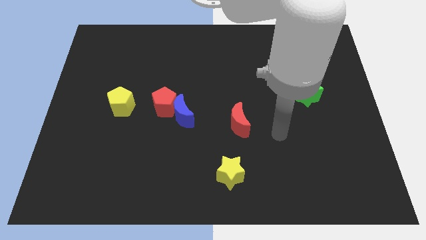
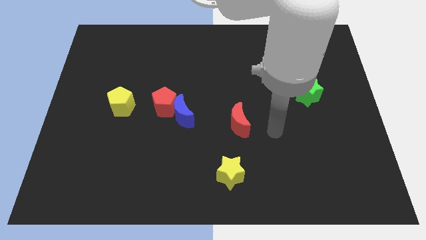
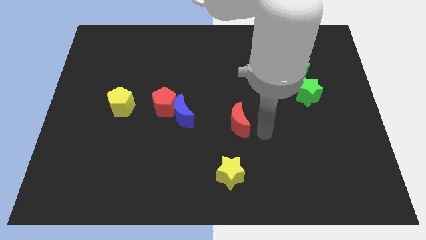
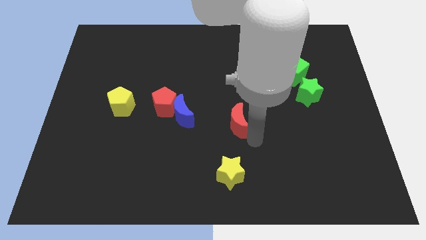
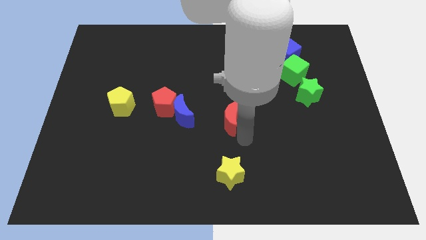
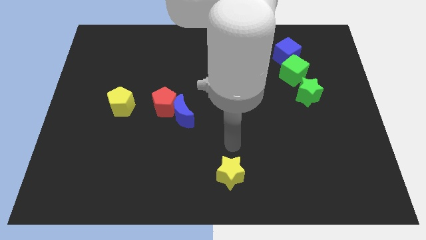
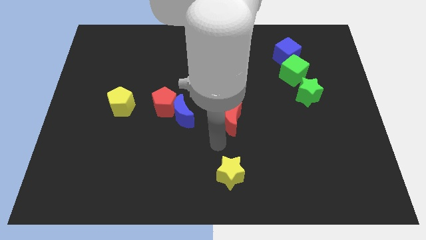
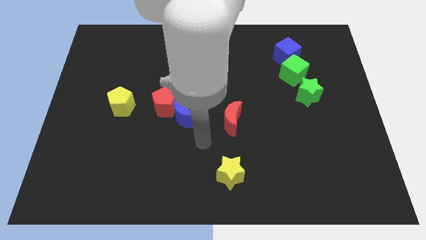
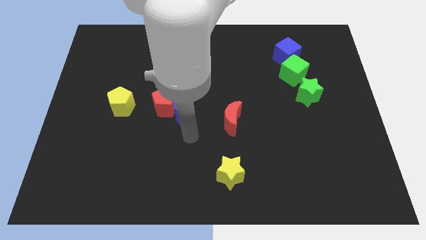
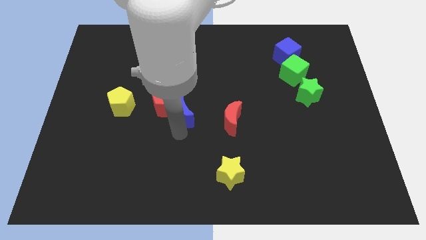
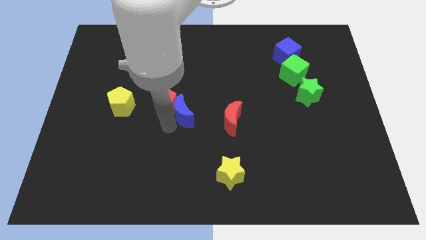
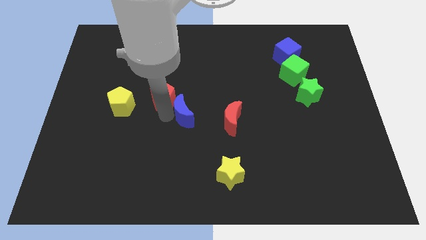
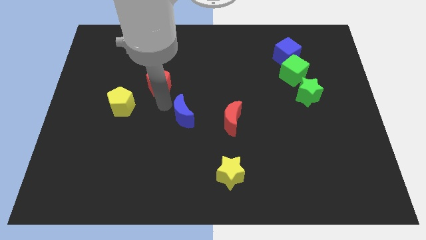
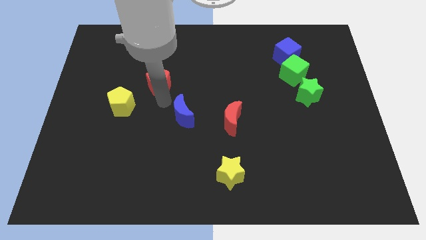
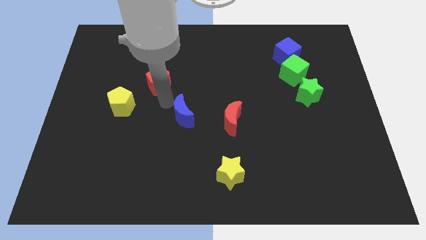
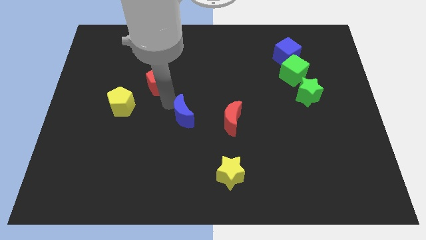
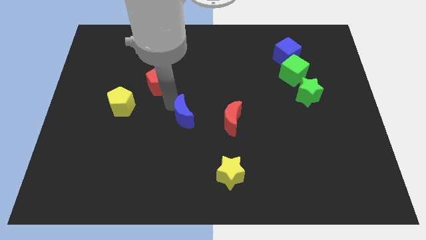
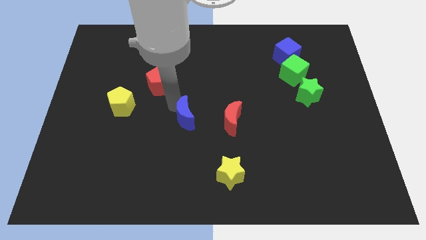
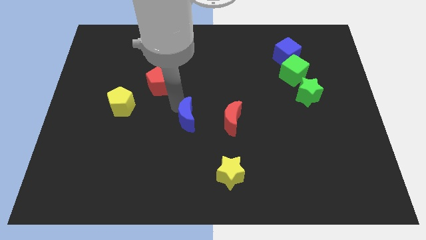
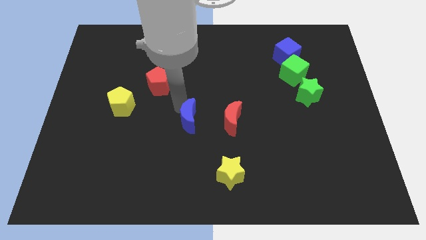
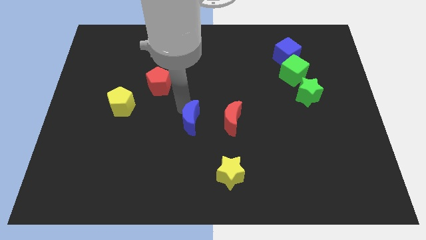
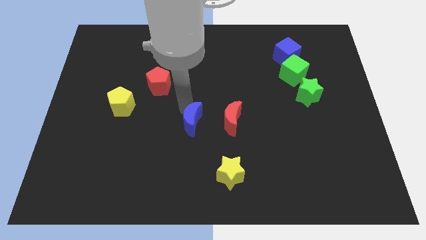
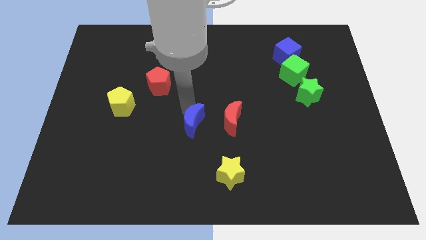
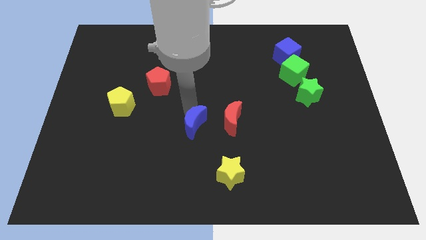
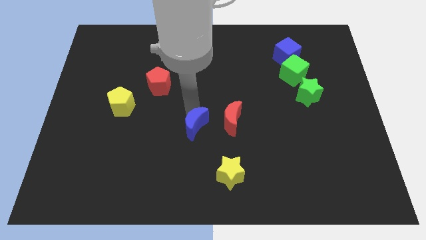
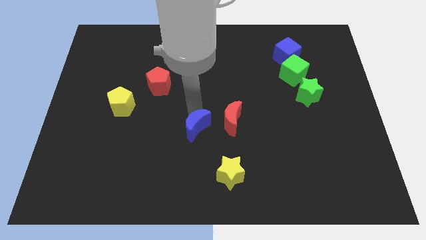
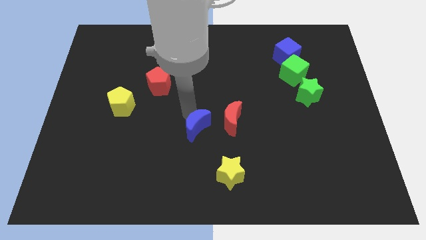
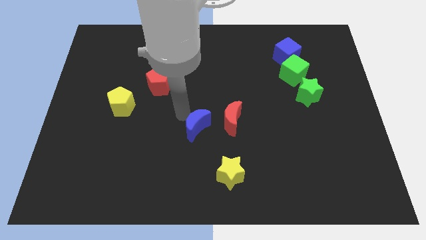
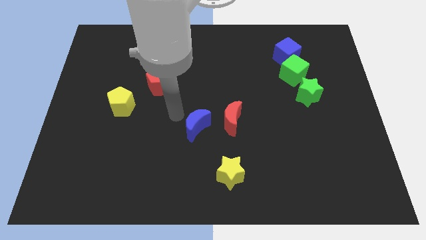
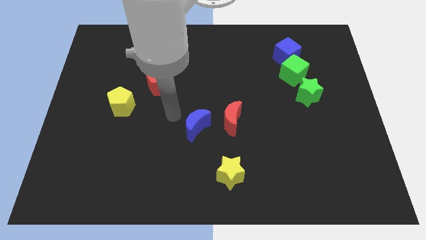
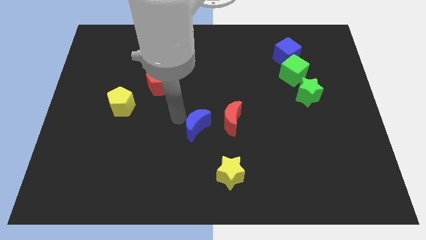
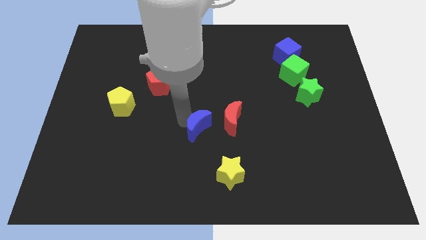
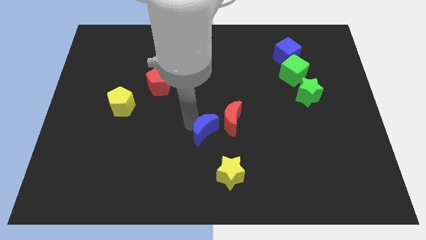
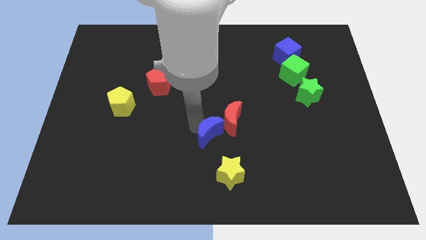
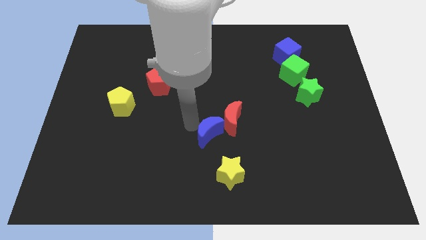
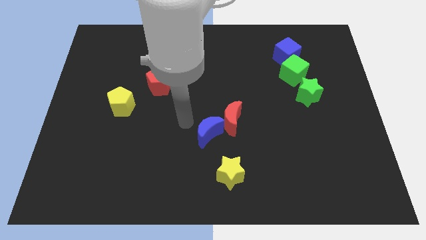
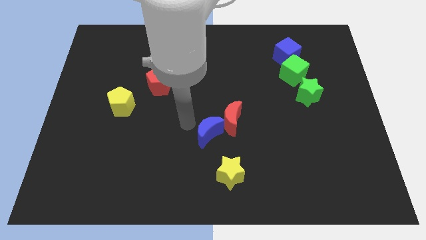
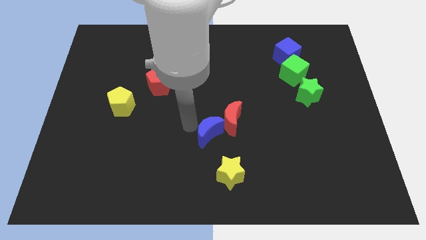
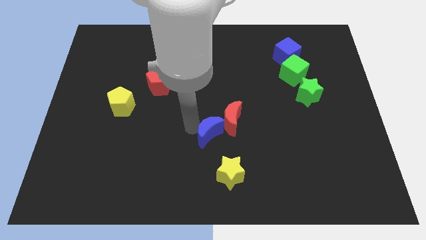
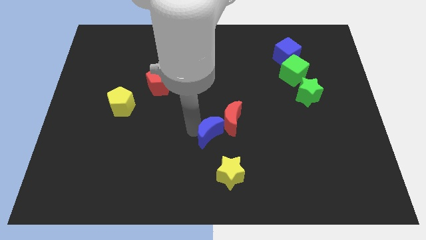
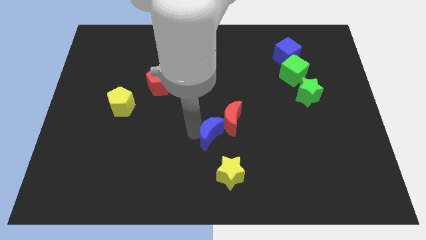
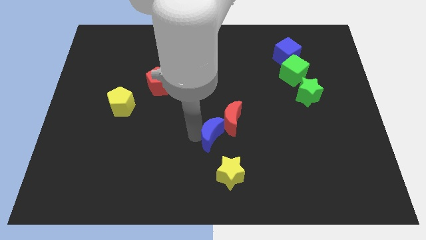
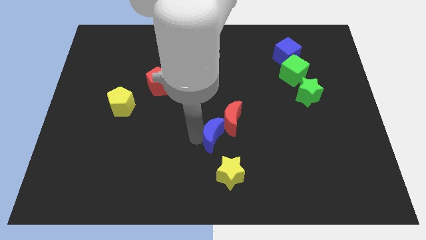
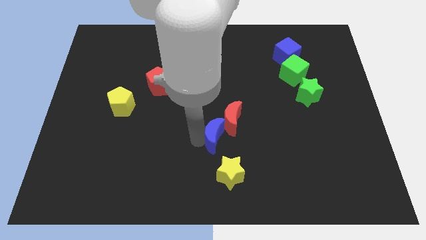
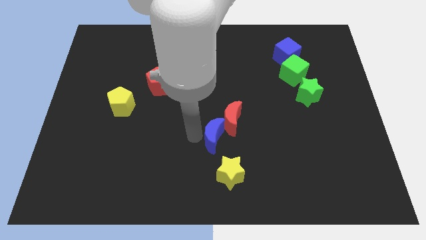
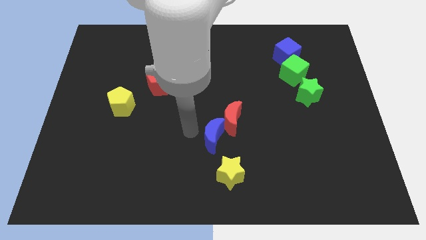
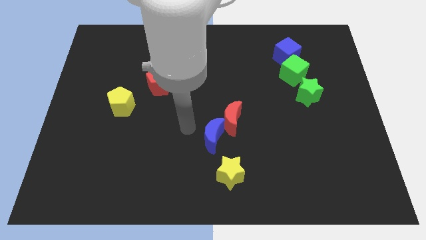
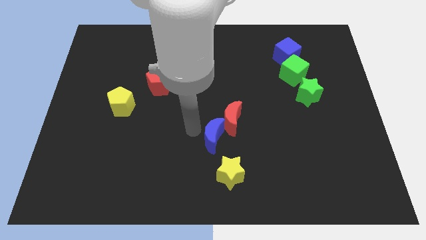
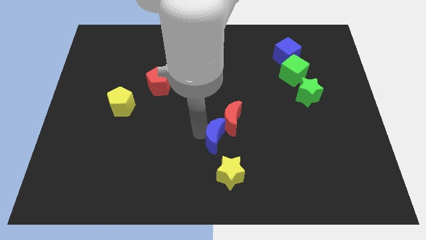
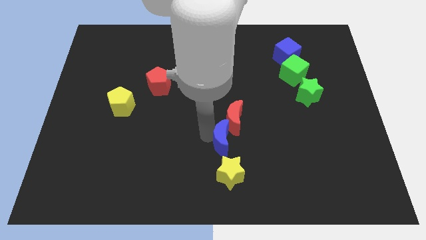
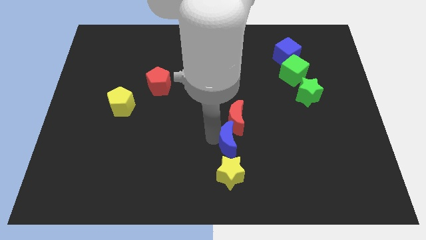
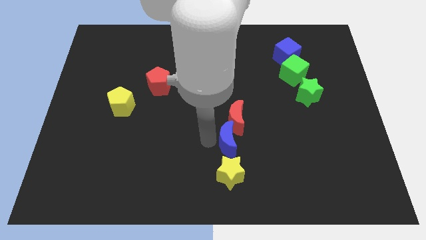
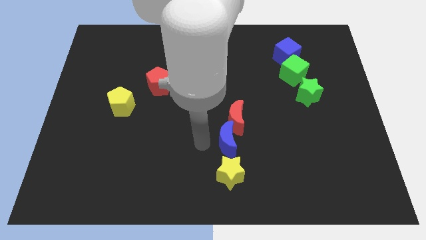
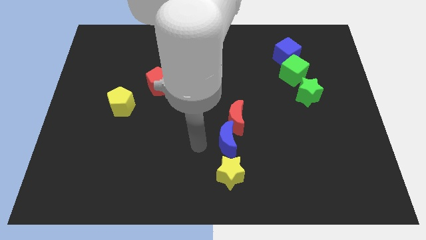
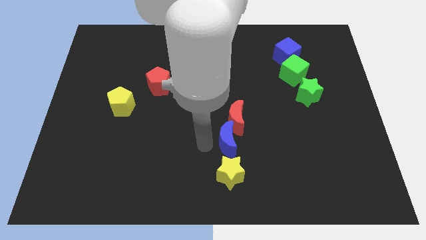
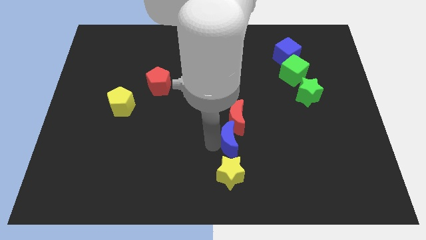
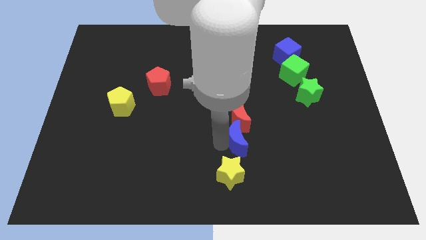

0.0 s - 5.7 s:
move the blue moon to the bottom right side of the red moon

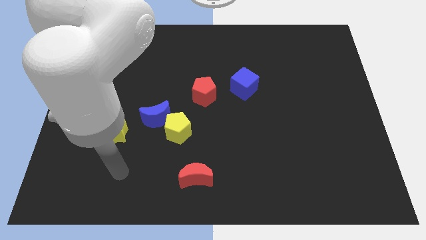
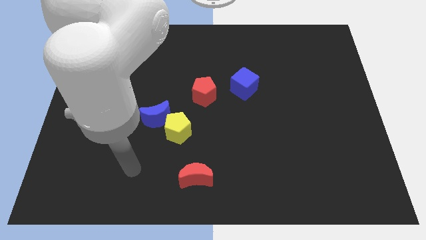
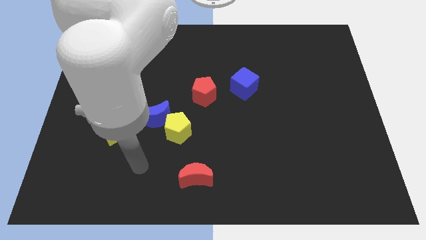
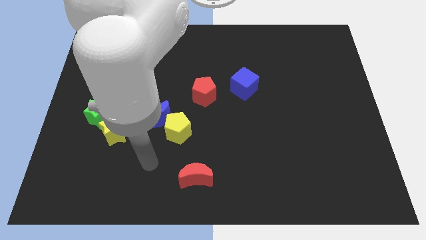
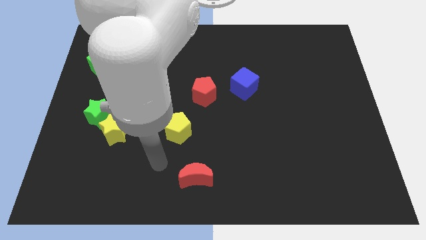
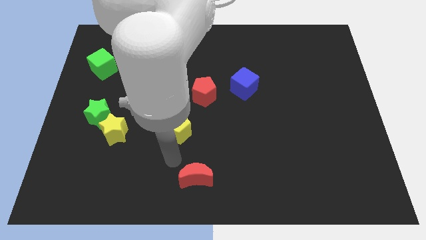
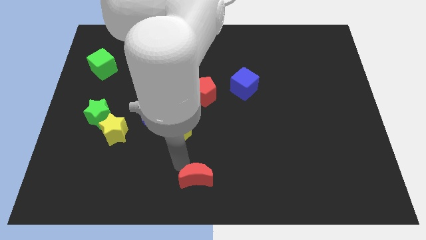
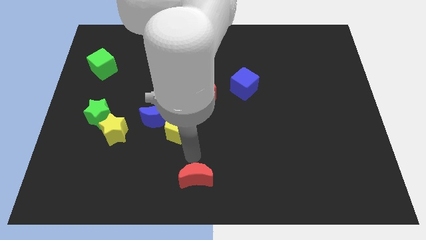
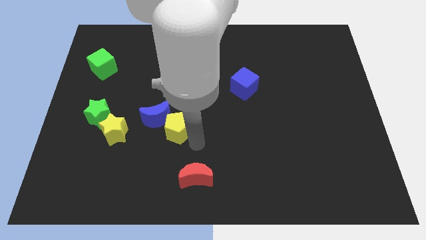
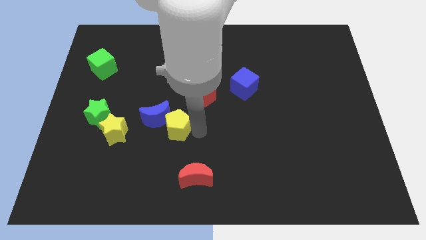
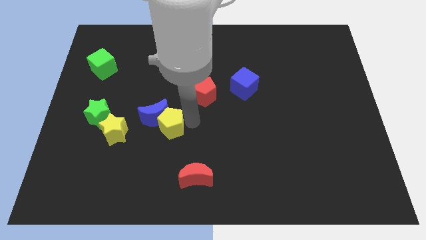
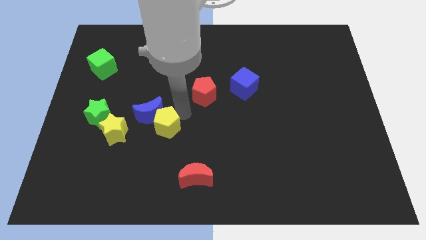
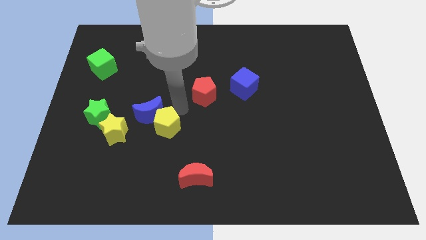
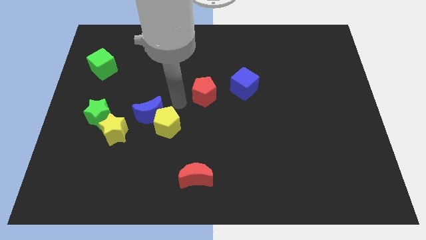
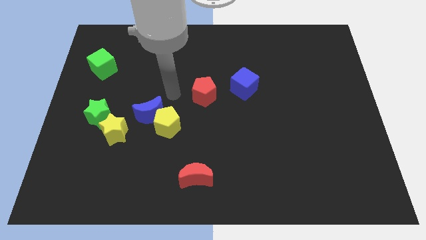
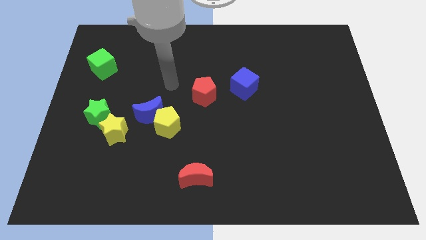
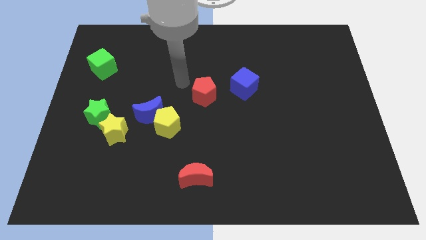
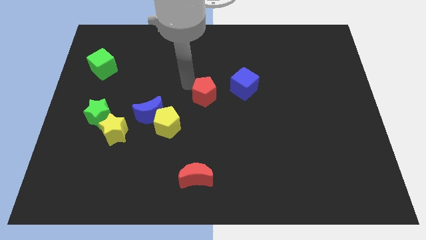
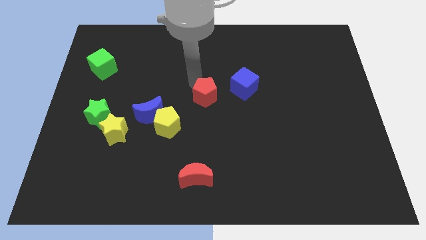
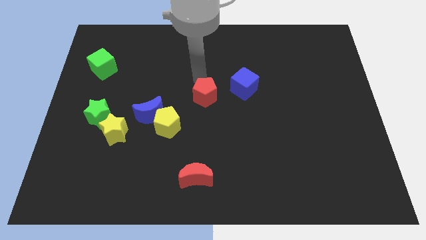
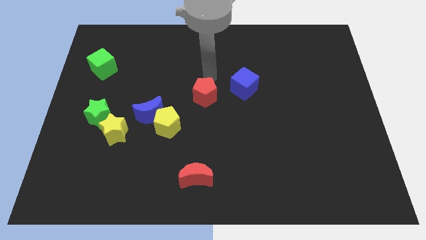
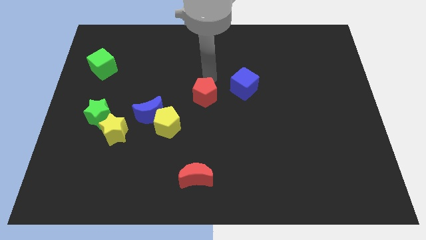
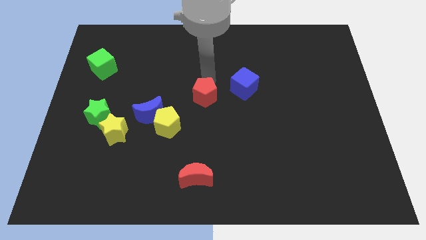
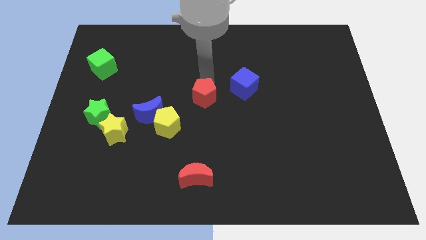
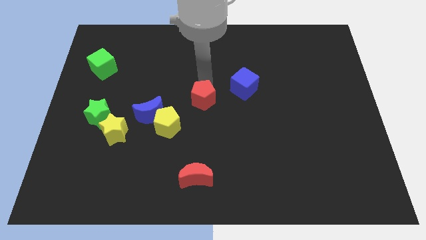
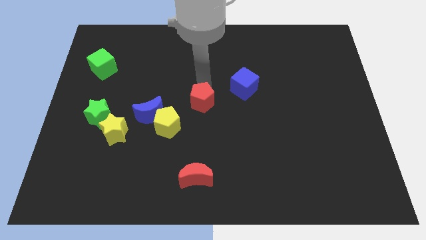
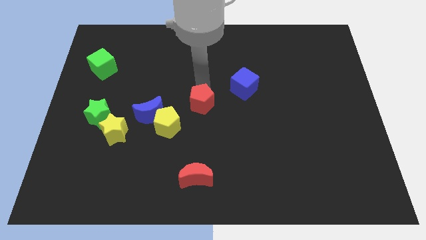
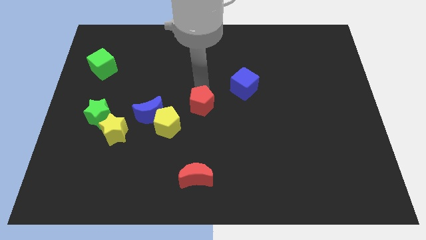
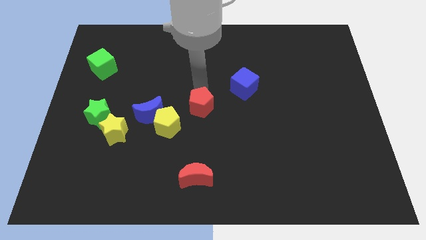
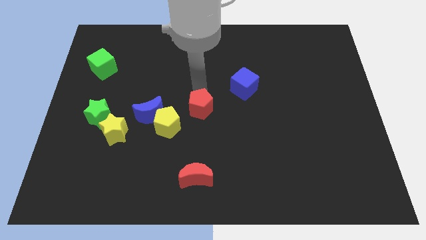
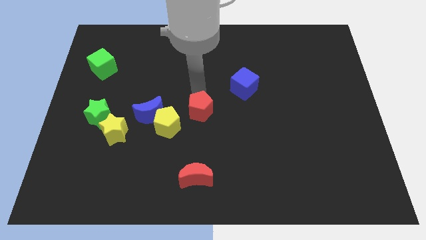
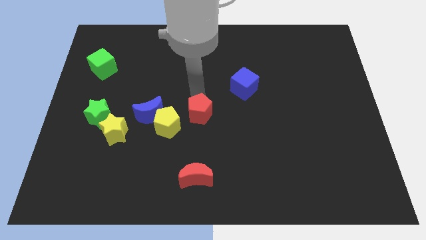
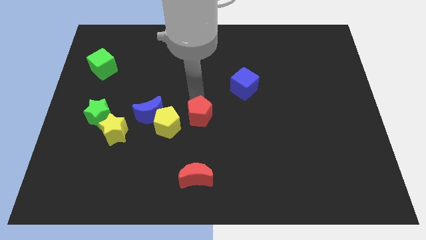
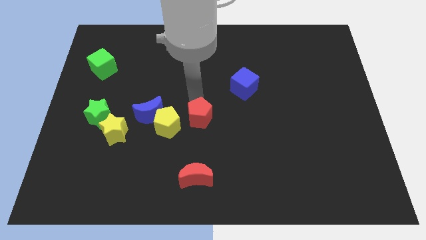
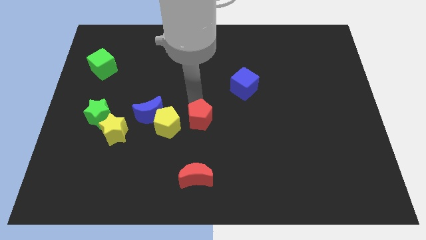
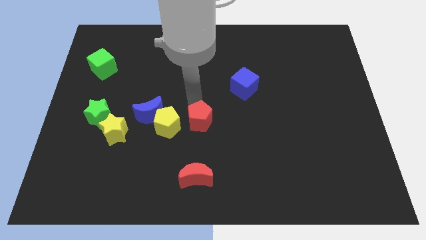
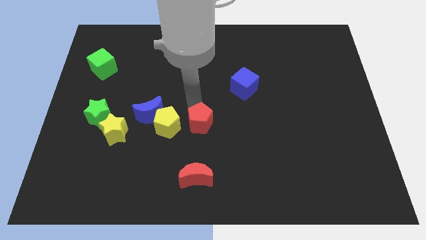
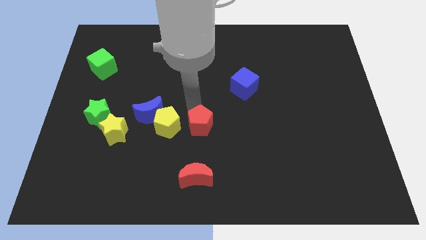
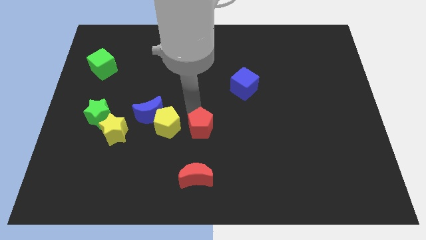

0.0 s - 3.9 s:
slide the red pentagon to the bottom right side of the yellow pentagon
